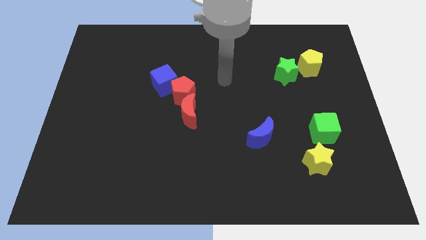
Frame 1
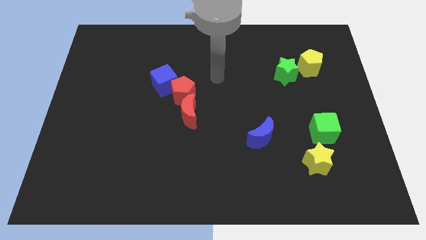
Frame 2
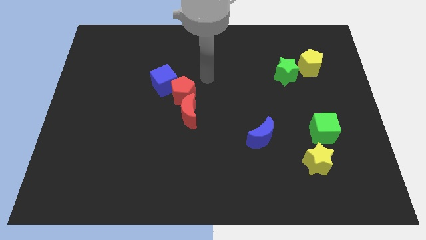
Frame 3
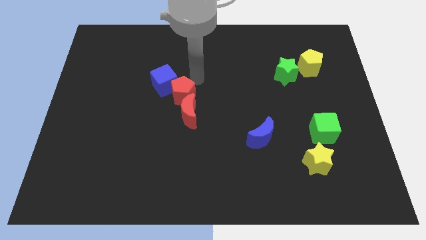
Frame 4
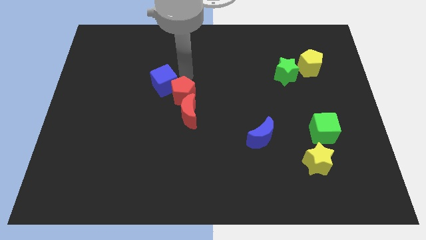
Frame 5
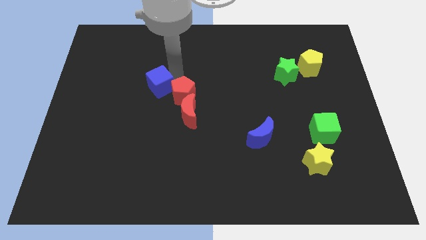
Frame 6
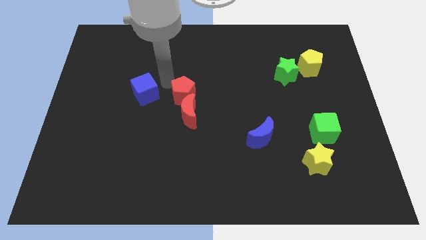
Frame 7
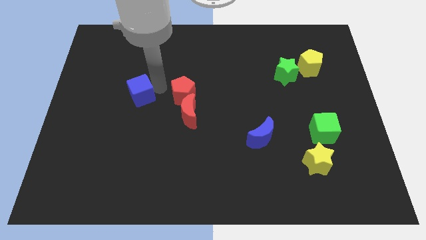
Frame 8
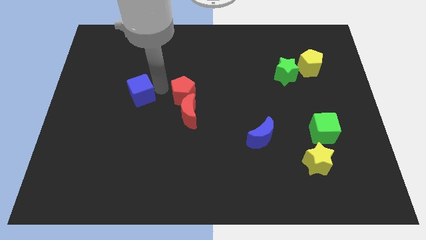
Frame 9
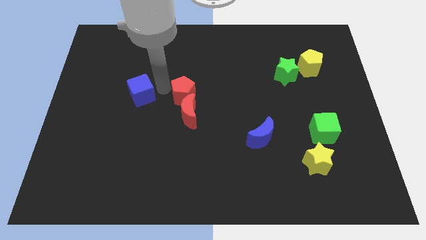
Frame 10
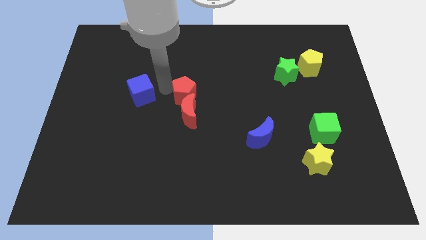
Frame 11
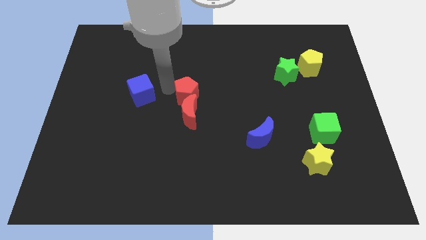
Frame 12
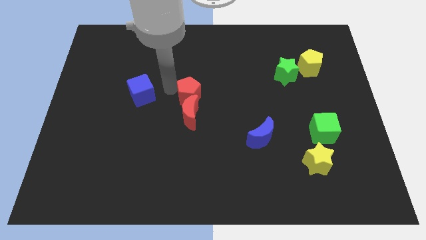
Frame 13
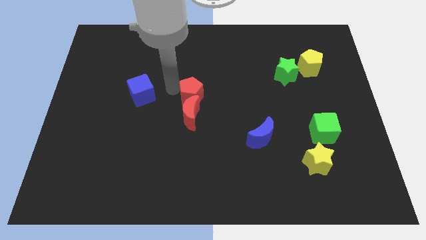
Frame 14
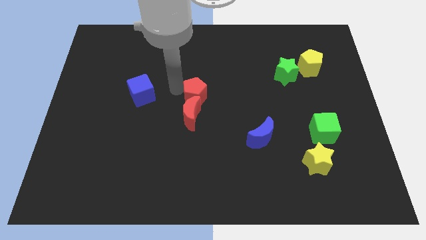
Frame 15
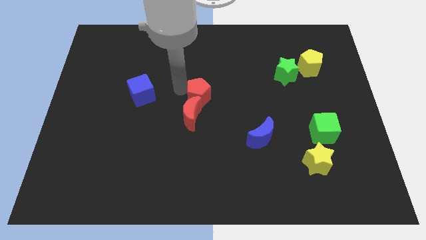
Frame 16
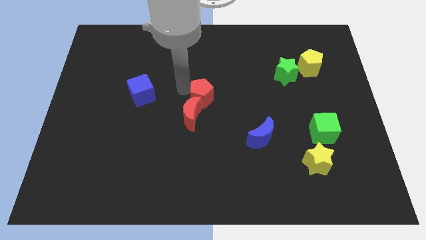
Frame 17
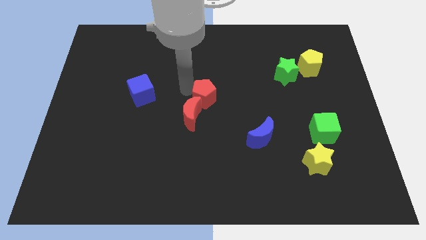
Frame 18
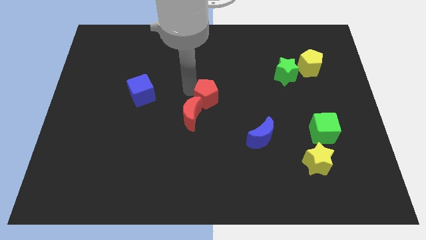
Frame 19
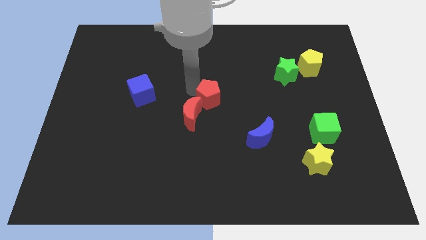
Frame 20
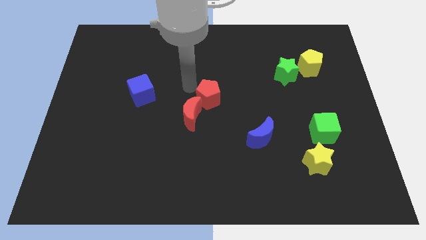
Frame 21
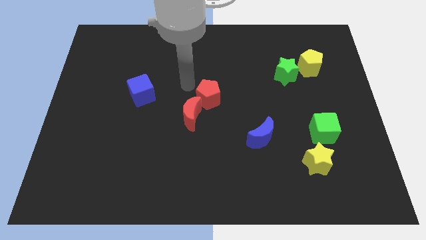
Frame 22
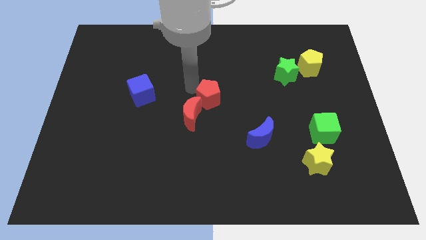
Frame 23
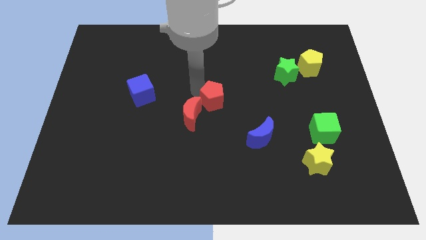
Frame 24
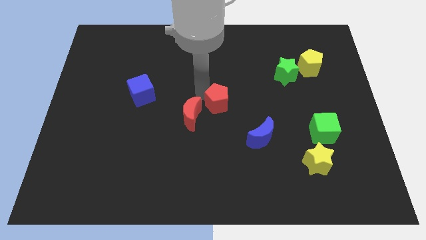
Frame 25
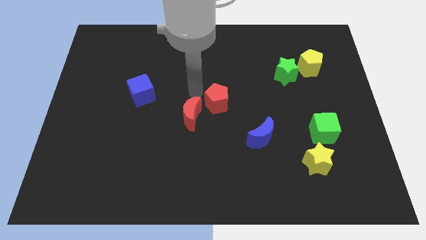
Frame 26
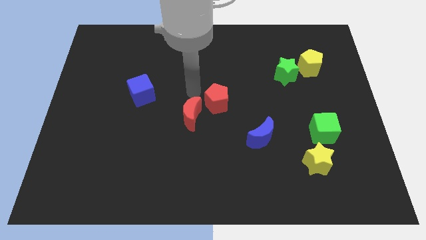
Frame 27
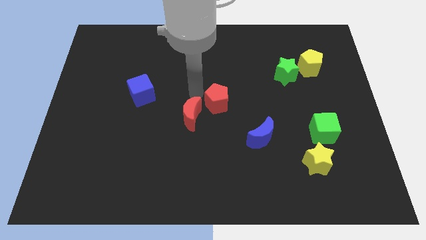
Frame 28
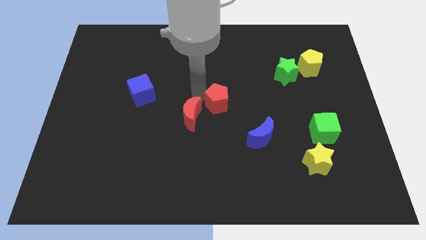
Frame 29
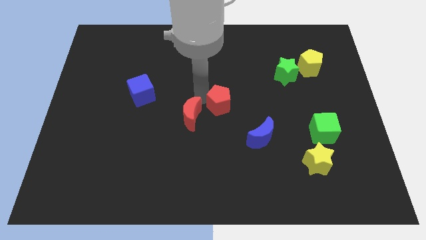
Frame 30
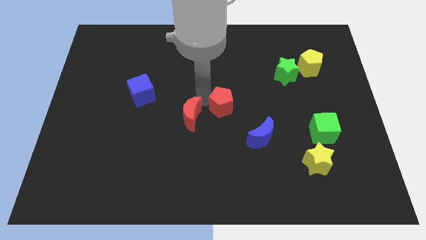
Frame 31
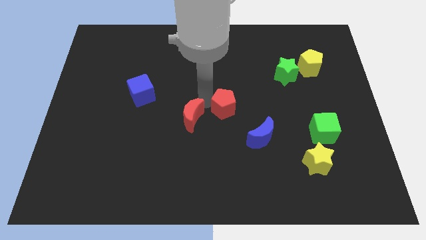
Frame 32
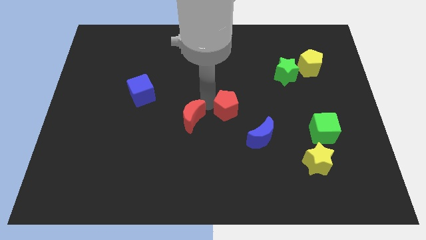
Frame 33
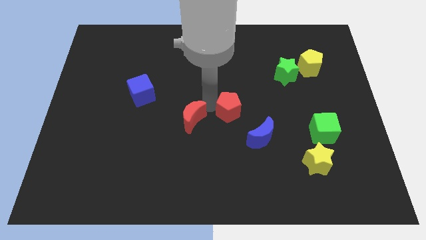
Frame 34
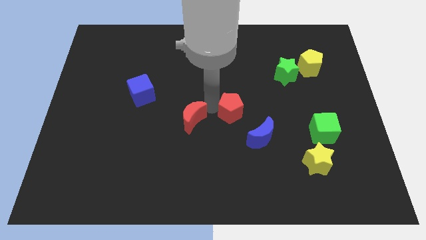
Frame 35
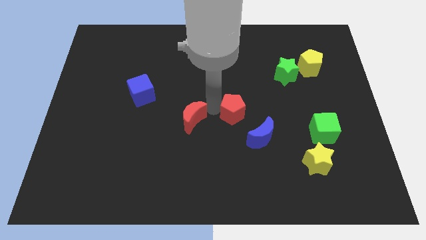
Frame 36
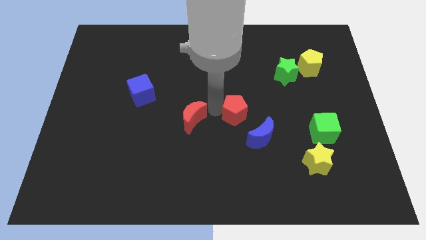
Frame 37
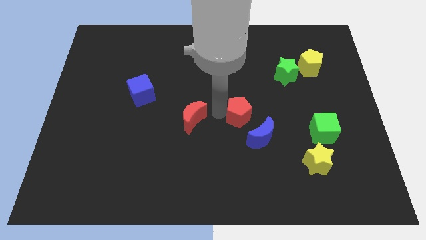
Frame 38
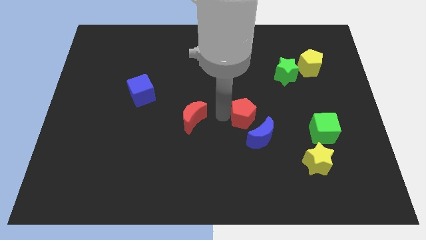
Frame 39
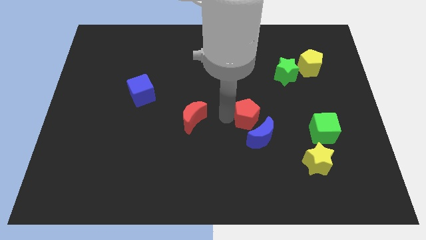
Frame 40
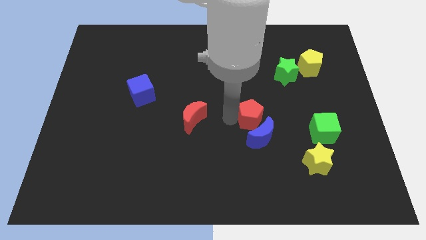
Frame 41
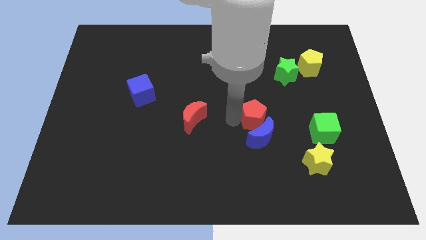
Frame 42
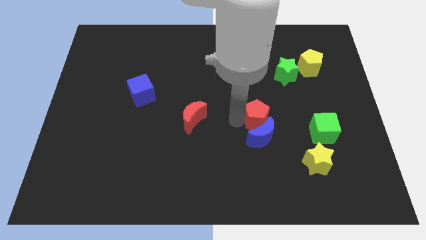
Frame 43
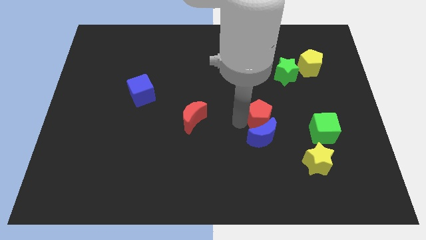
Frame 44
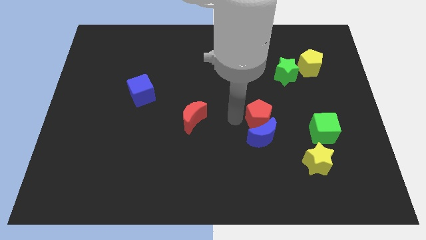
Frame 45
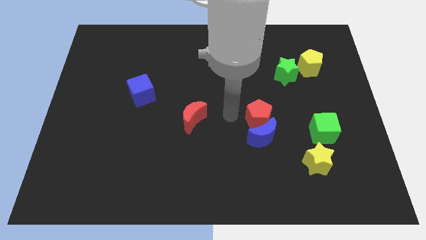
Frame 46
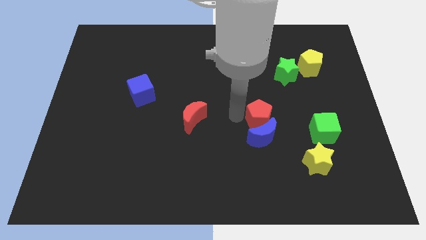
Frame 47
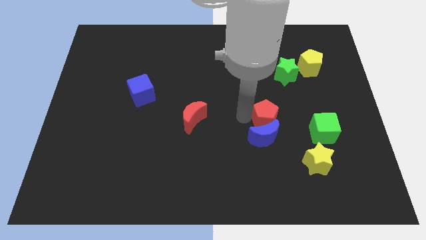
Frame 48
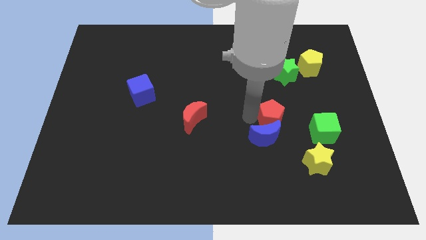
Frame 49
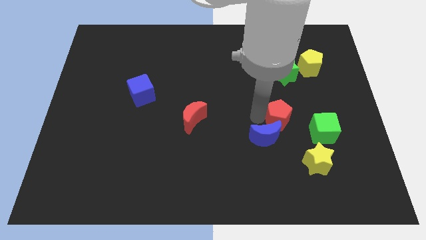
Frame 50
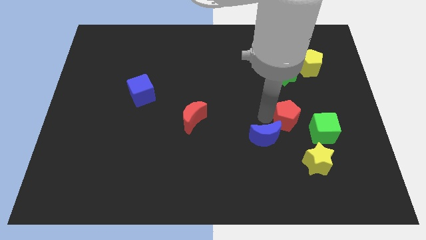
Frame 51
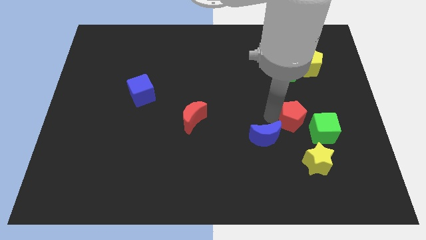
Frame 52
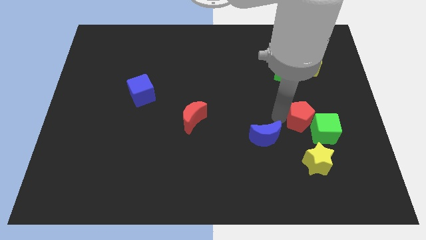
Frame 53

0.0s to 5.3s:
slide the red pentagon towards the green cube

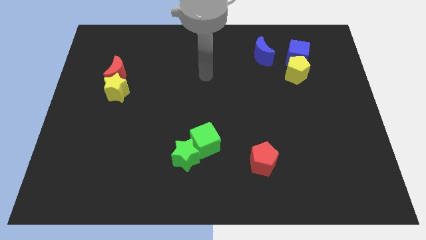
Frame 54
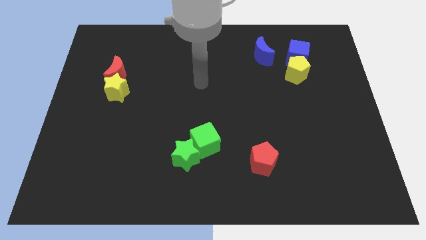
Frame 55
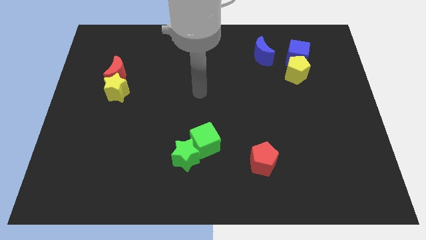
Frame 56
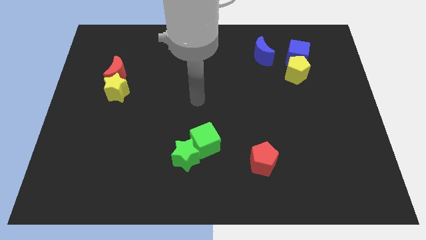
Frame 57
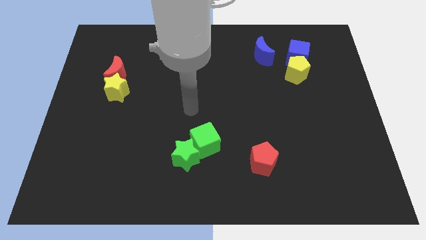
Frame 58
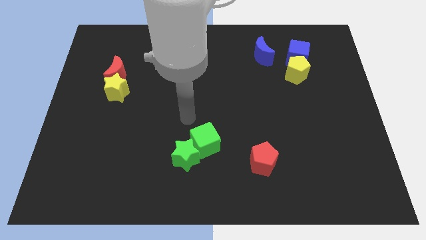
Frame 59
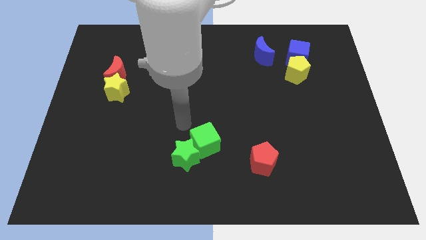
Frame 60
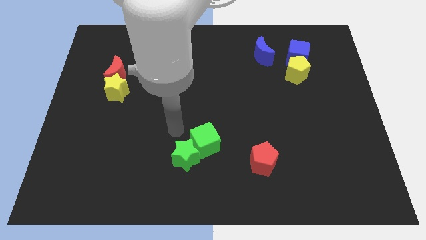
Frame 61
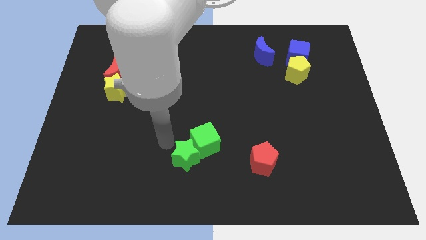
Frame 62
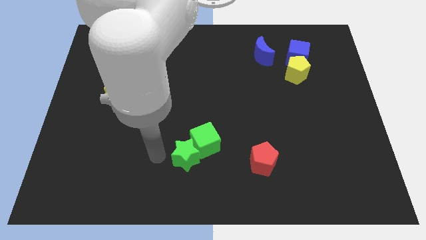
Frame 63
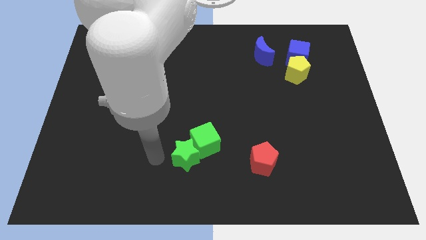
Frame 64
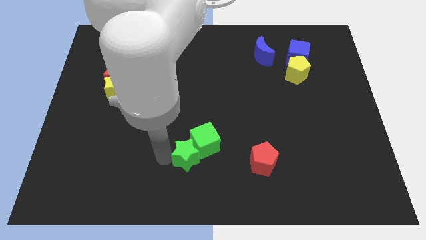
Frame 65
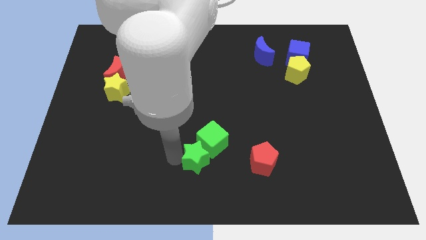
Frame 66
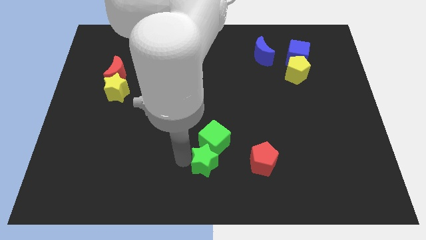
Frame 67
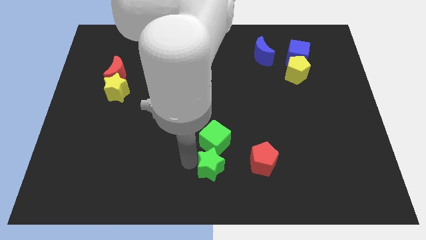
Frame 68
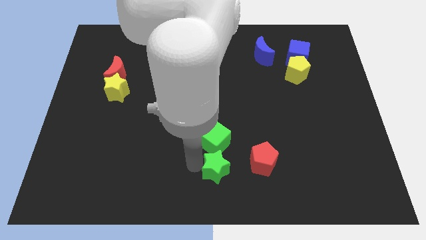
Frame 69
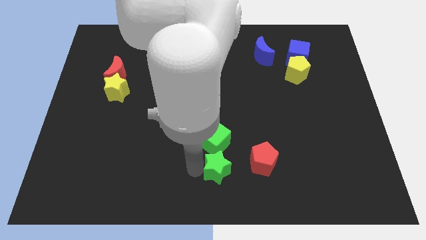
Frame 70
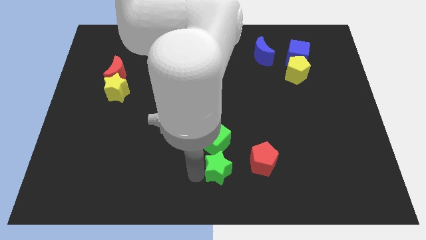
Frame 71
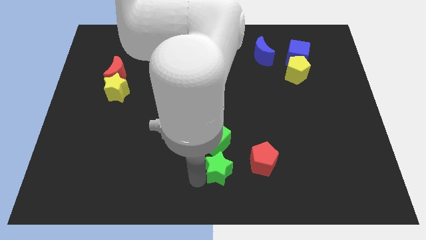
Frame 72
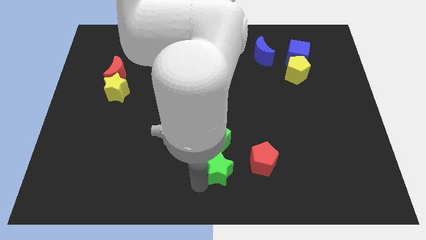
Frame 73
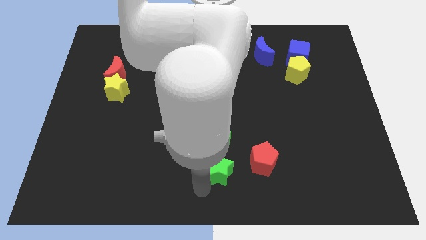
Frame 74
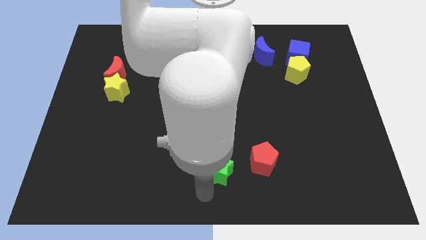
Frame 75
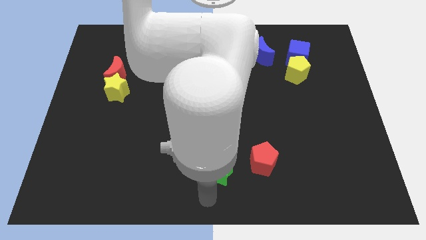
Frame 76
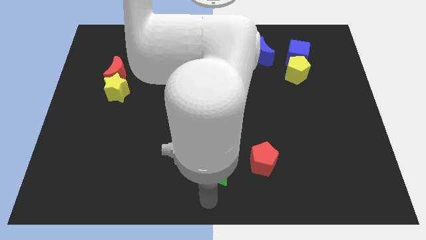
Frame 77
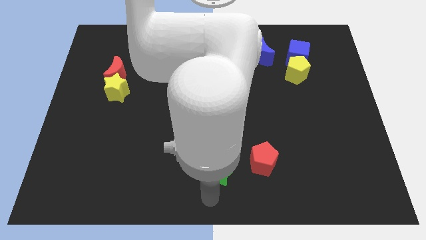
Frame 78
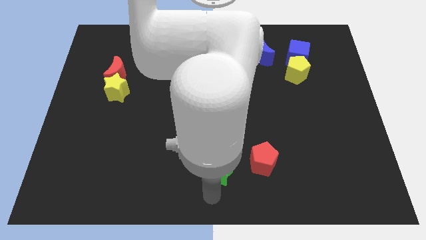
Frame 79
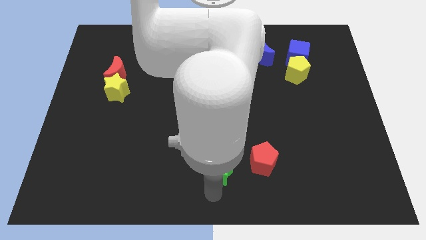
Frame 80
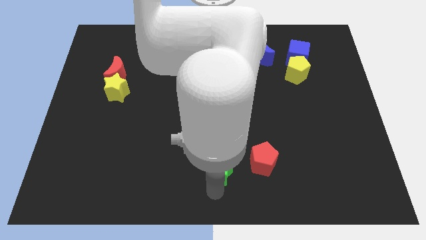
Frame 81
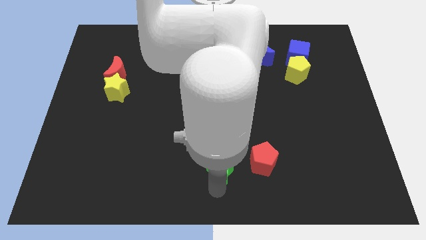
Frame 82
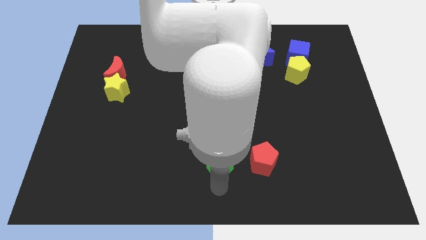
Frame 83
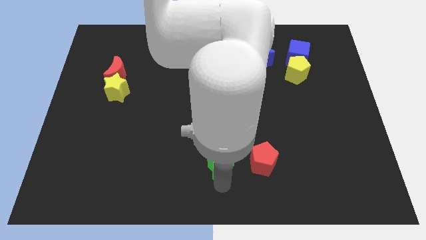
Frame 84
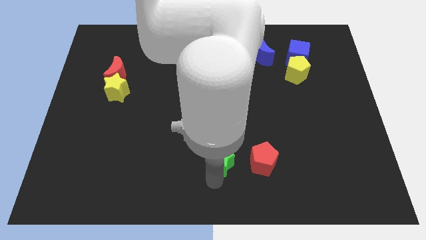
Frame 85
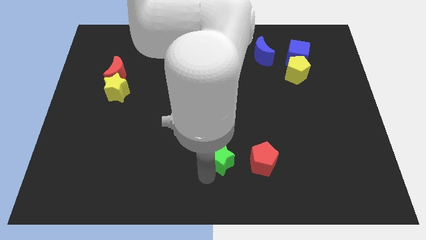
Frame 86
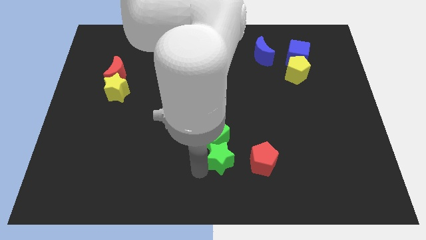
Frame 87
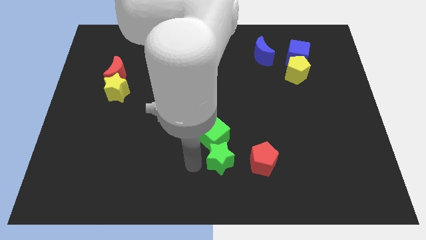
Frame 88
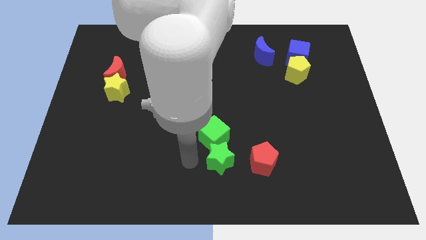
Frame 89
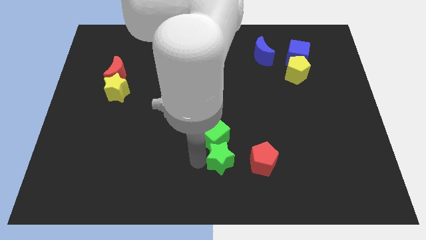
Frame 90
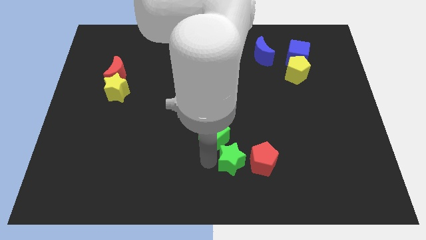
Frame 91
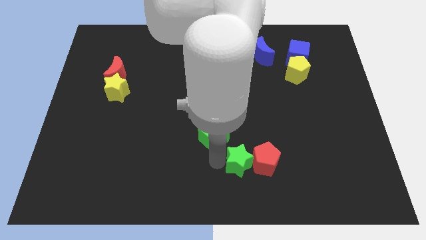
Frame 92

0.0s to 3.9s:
move the green star next to the red pentagon
